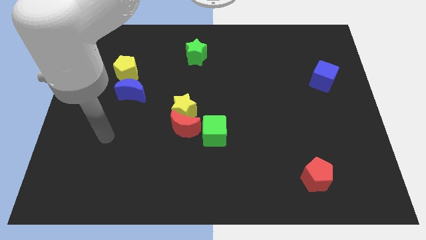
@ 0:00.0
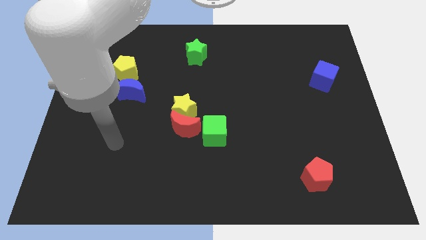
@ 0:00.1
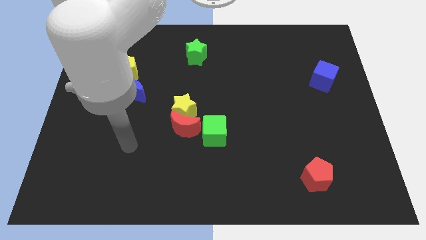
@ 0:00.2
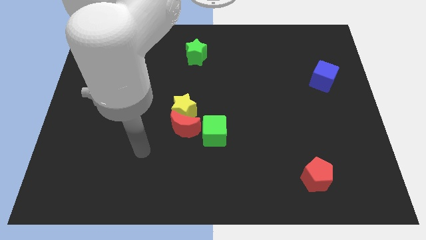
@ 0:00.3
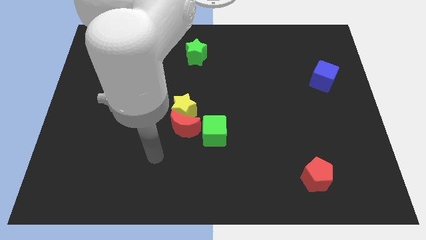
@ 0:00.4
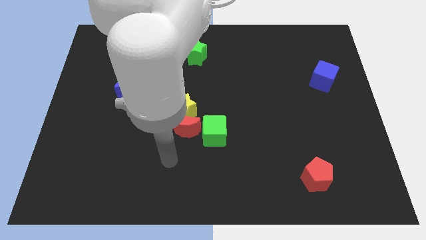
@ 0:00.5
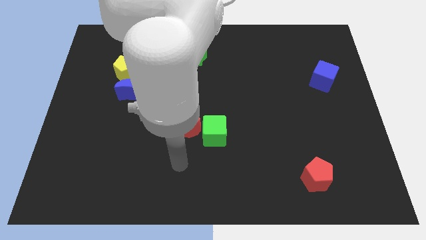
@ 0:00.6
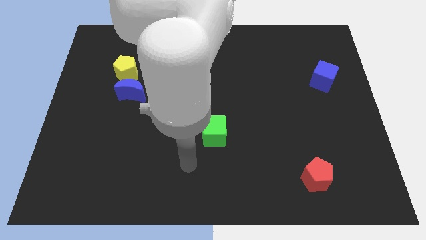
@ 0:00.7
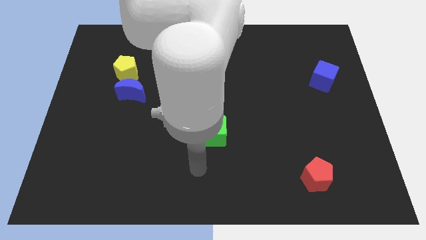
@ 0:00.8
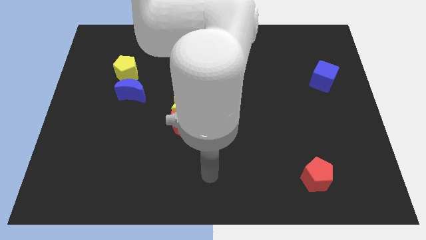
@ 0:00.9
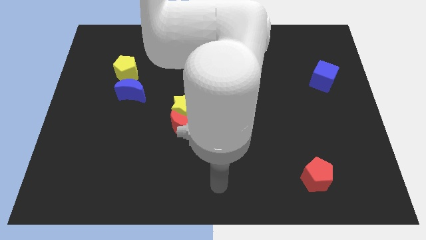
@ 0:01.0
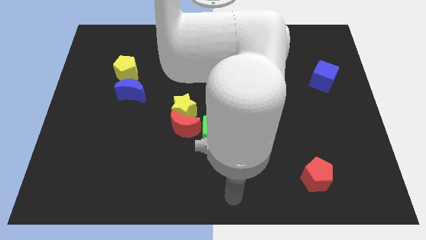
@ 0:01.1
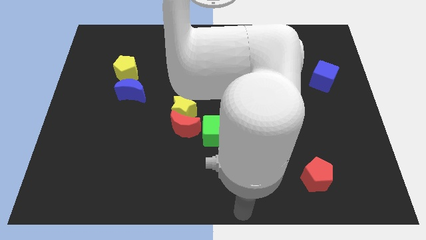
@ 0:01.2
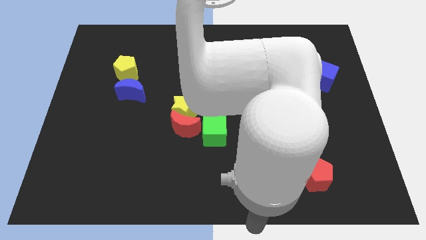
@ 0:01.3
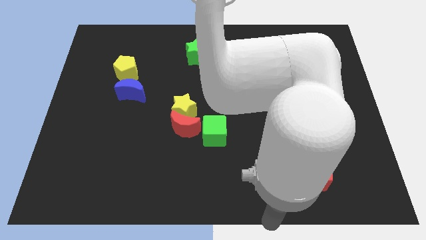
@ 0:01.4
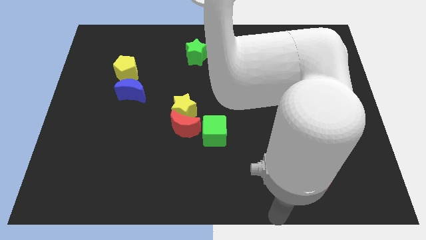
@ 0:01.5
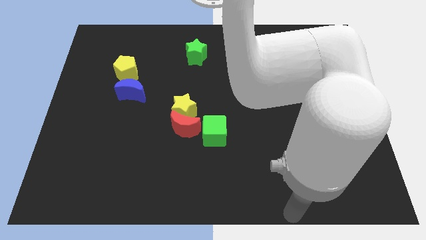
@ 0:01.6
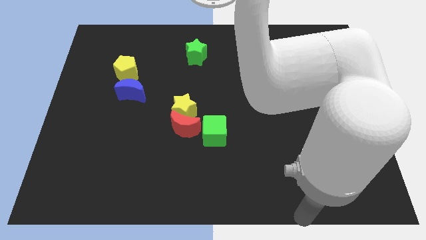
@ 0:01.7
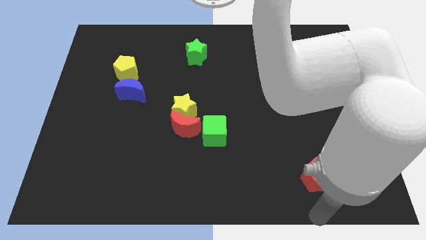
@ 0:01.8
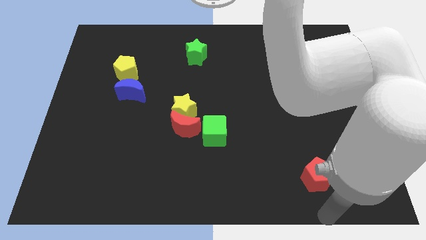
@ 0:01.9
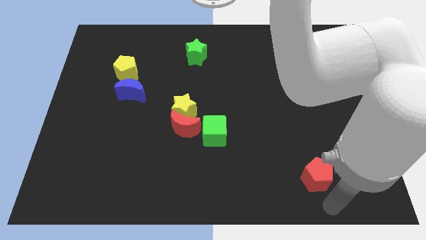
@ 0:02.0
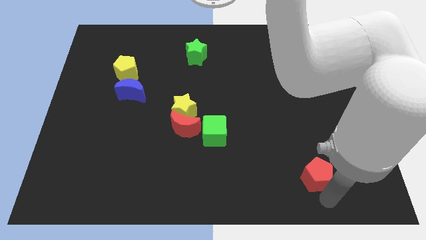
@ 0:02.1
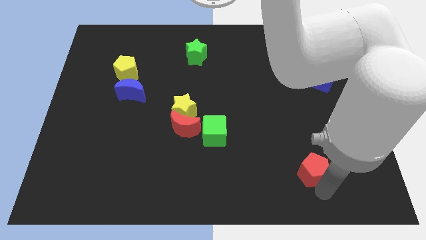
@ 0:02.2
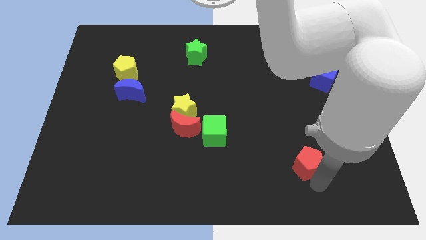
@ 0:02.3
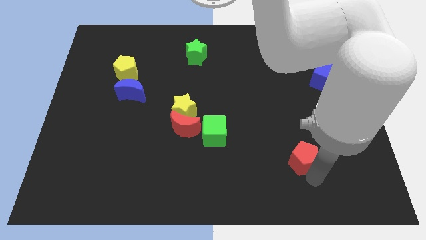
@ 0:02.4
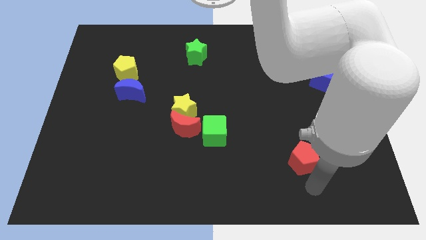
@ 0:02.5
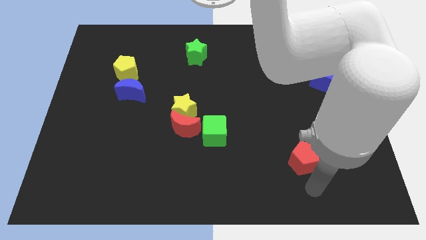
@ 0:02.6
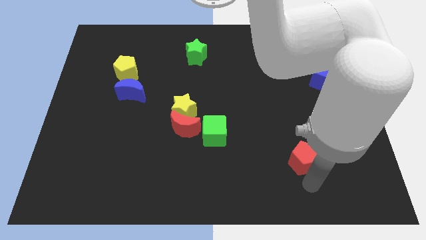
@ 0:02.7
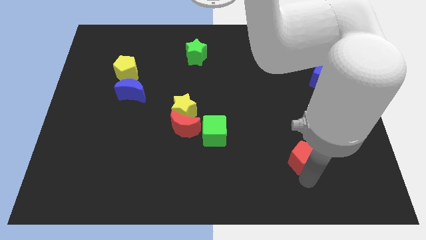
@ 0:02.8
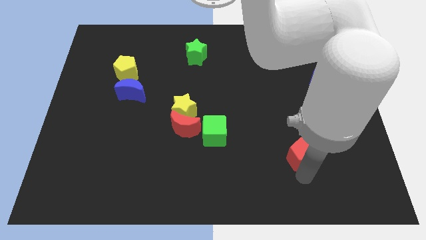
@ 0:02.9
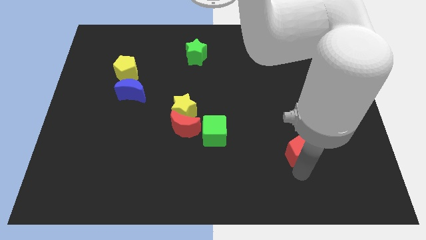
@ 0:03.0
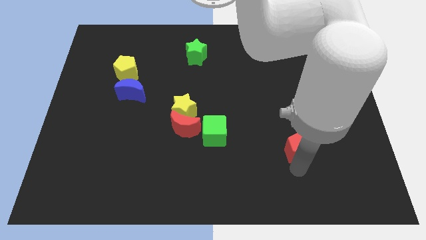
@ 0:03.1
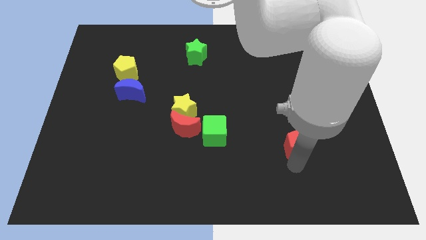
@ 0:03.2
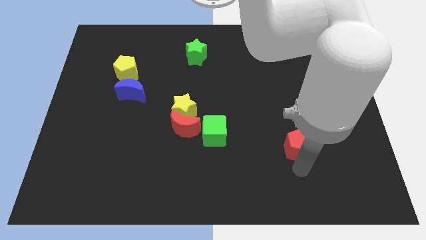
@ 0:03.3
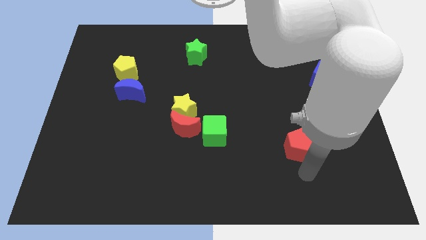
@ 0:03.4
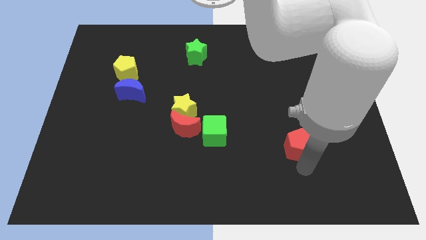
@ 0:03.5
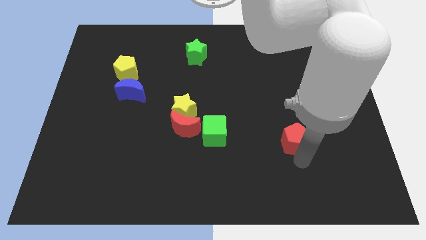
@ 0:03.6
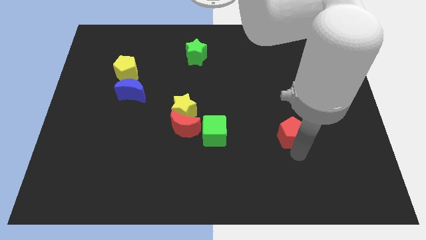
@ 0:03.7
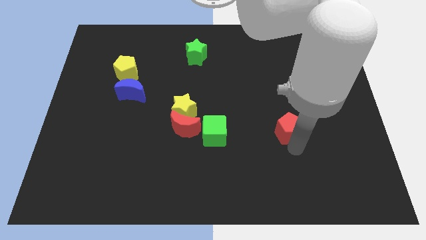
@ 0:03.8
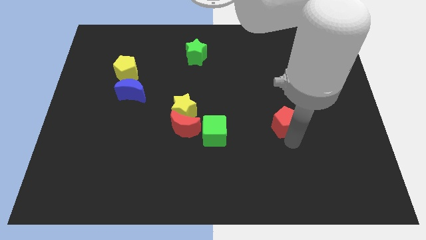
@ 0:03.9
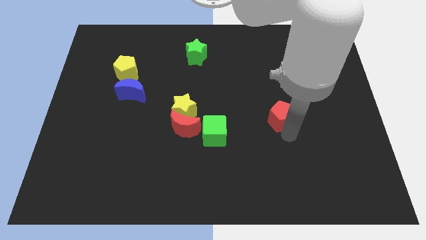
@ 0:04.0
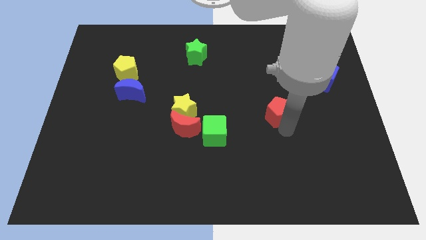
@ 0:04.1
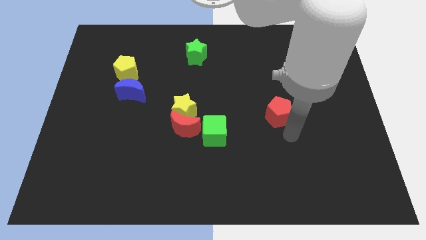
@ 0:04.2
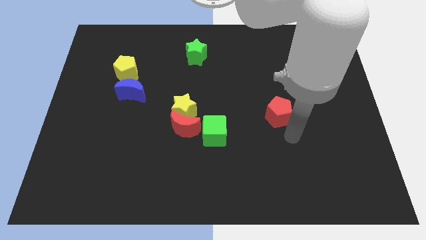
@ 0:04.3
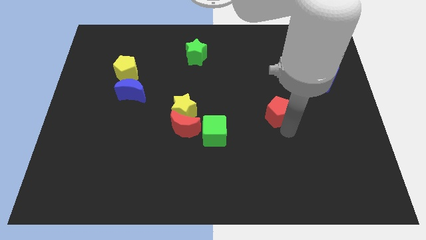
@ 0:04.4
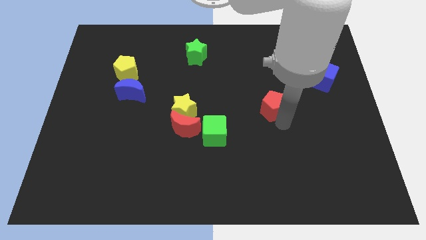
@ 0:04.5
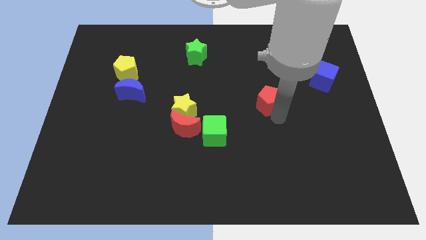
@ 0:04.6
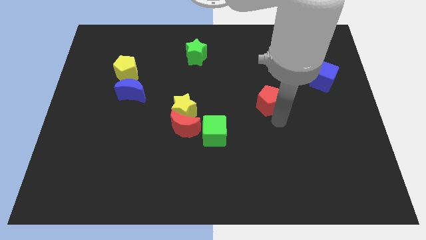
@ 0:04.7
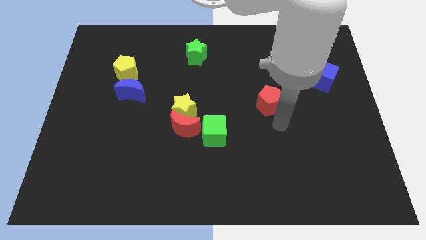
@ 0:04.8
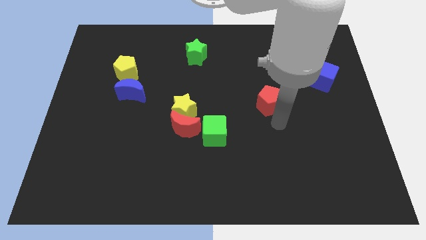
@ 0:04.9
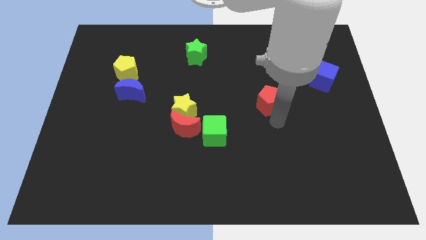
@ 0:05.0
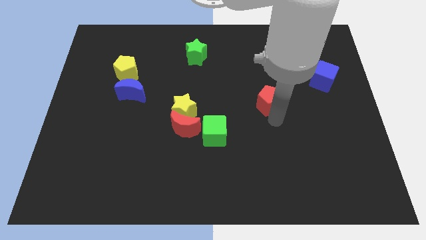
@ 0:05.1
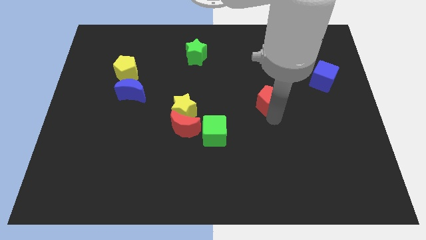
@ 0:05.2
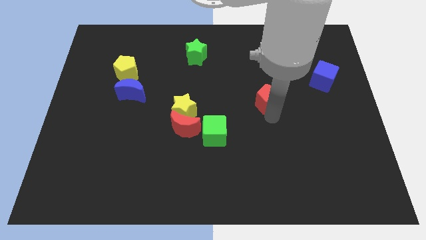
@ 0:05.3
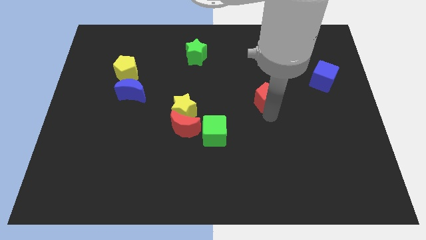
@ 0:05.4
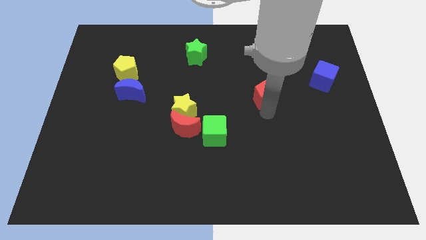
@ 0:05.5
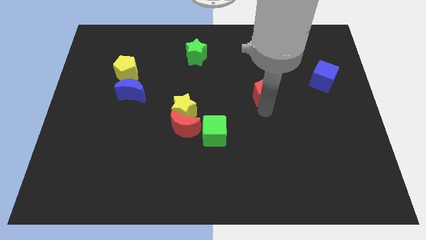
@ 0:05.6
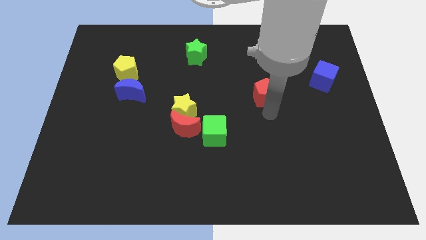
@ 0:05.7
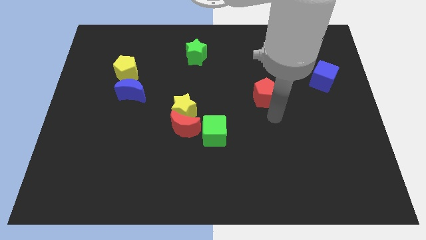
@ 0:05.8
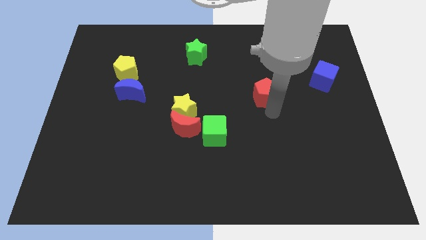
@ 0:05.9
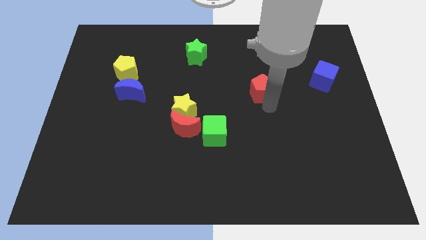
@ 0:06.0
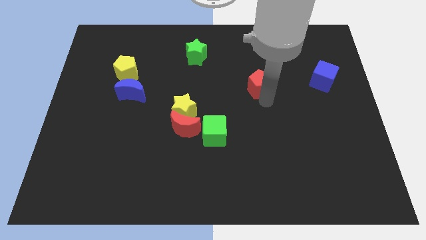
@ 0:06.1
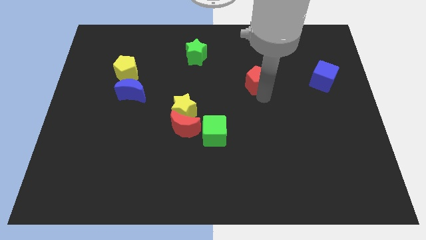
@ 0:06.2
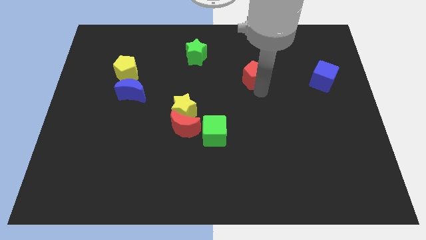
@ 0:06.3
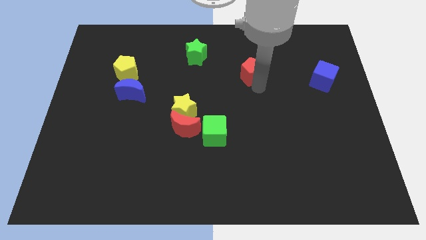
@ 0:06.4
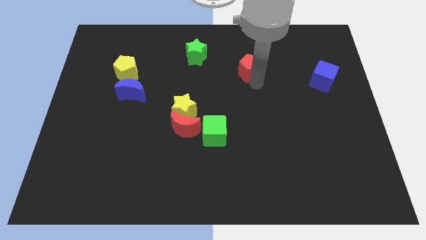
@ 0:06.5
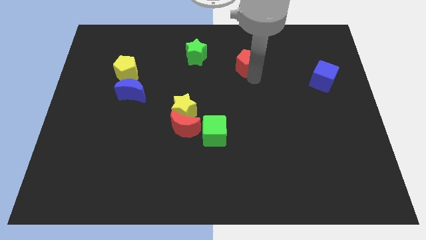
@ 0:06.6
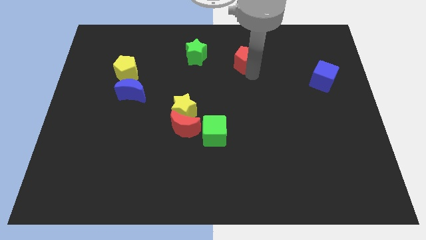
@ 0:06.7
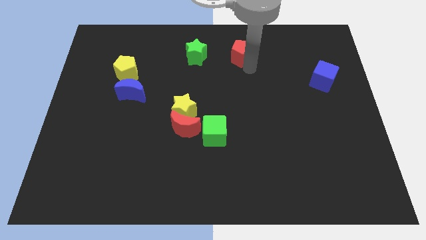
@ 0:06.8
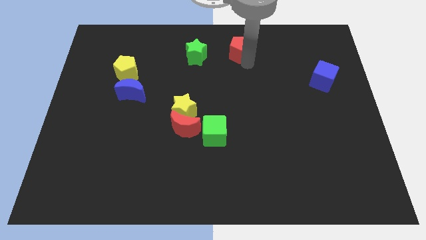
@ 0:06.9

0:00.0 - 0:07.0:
put the red pentagon to the top side
